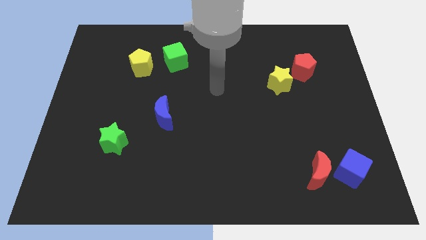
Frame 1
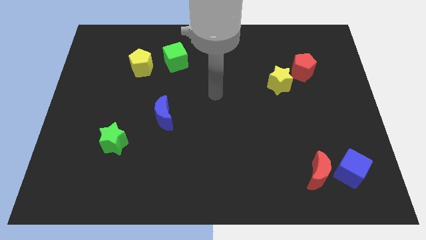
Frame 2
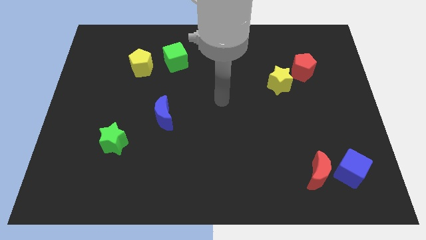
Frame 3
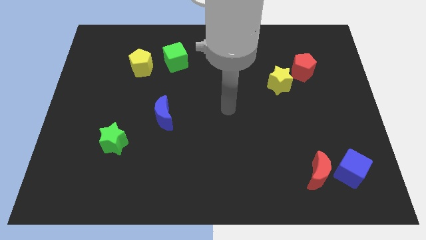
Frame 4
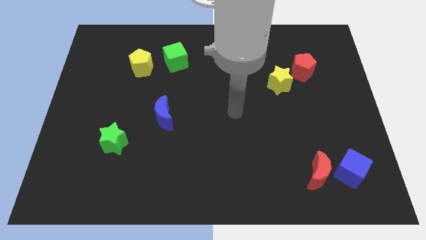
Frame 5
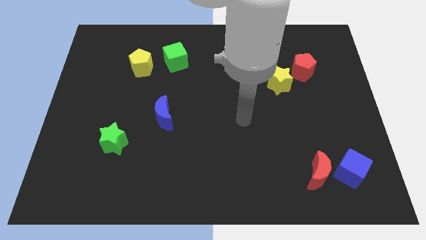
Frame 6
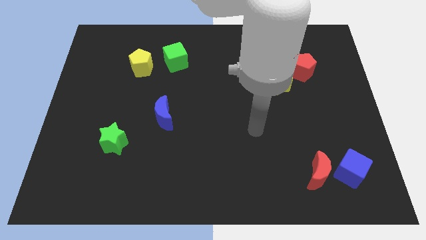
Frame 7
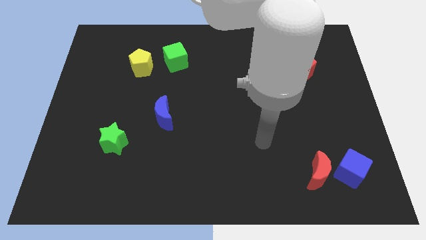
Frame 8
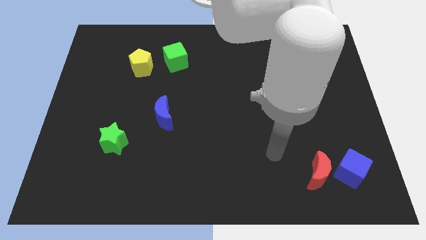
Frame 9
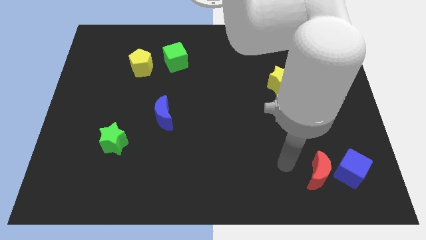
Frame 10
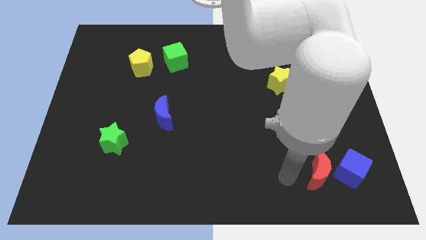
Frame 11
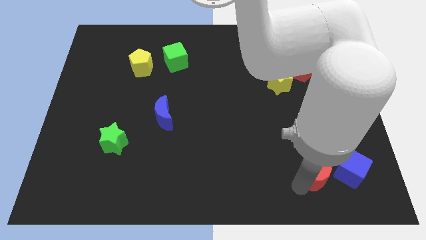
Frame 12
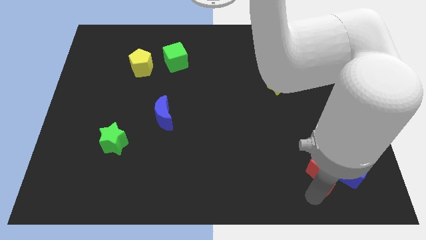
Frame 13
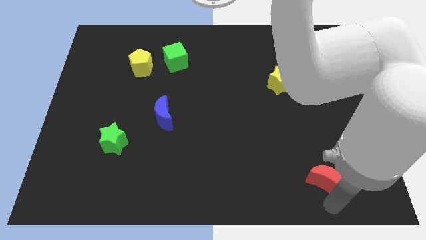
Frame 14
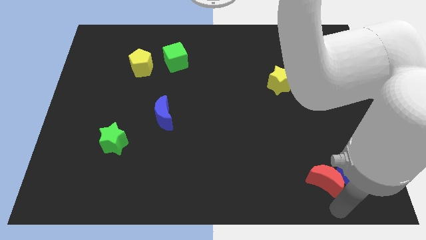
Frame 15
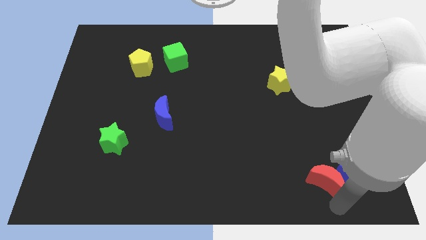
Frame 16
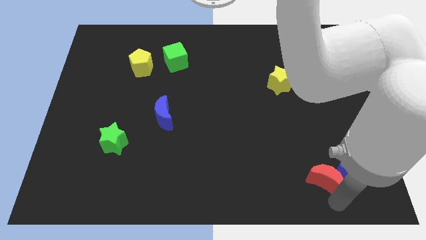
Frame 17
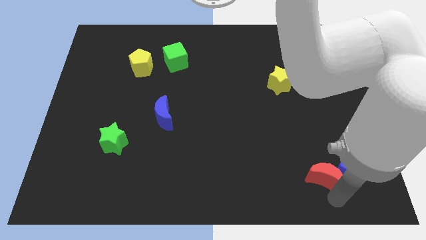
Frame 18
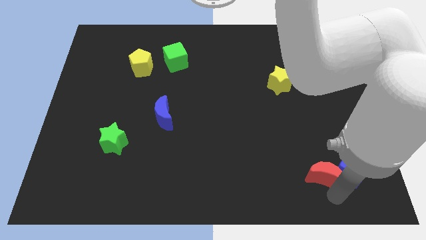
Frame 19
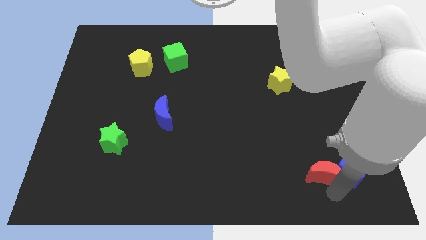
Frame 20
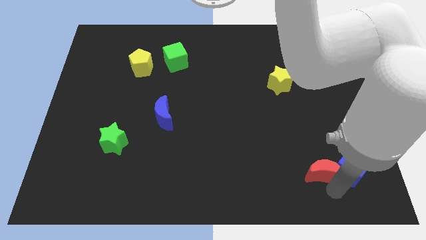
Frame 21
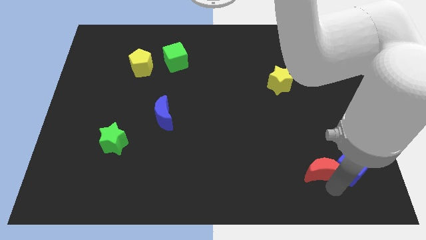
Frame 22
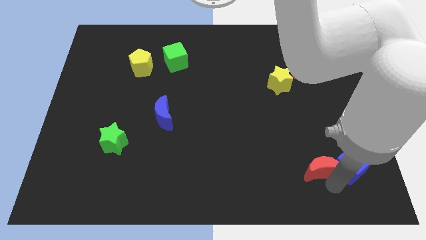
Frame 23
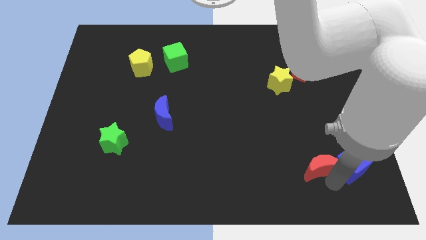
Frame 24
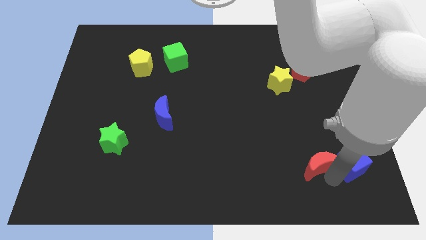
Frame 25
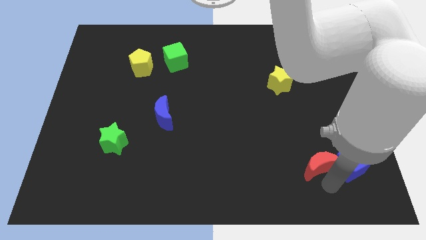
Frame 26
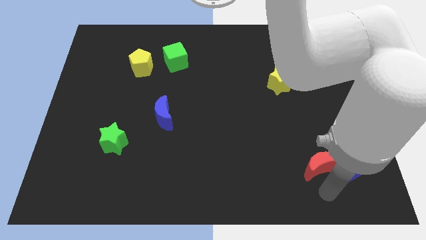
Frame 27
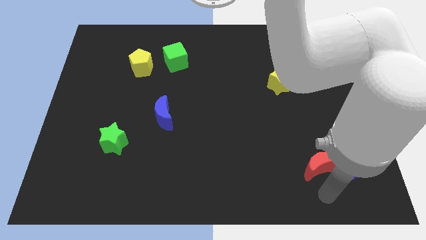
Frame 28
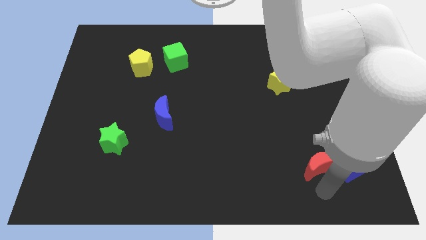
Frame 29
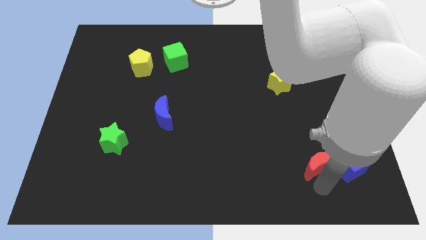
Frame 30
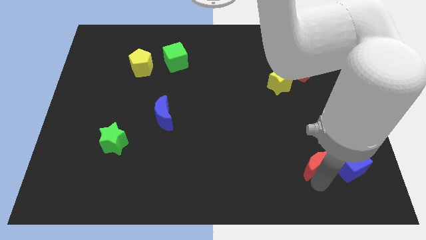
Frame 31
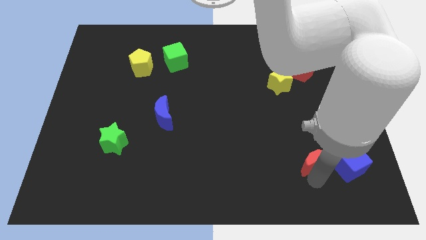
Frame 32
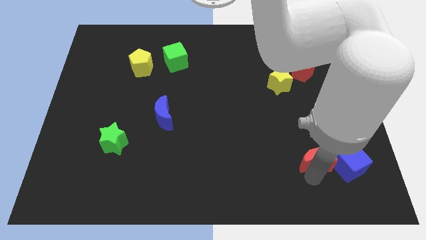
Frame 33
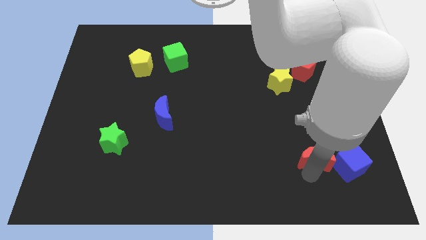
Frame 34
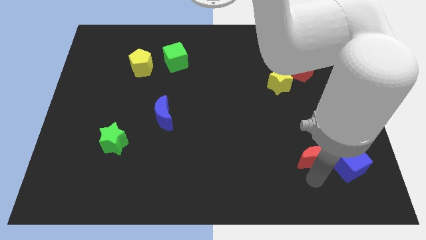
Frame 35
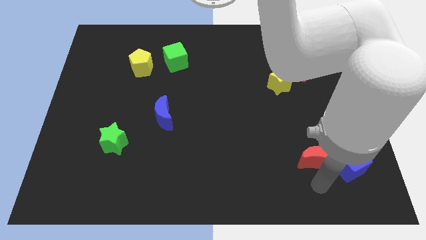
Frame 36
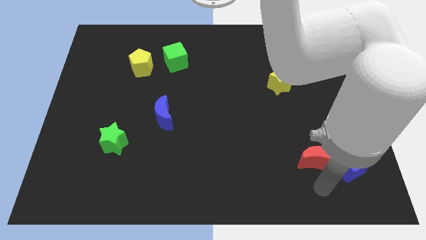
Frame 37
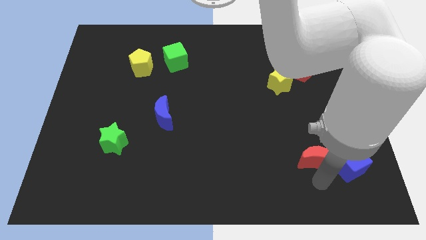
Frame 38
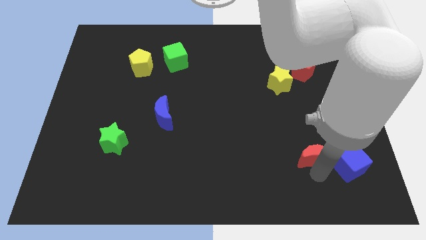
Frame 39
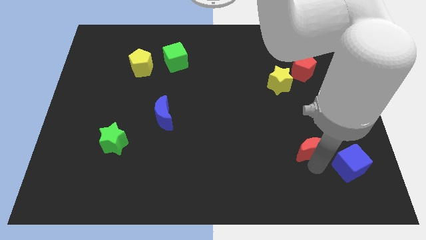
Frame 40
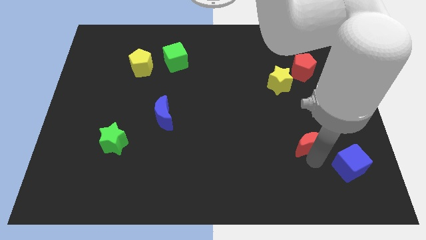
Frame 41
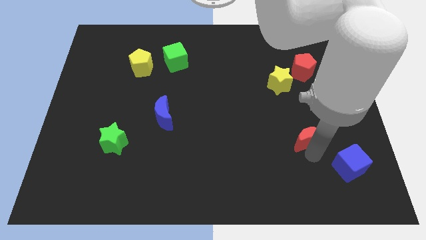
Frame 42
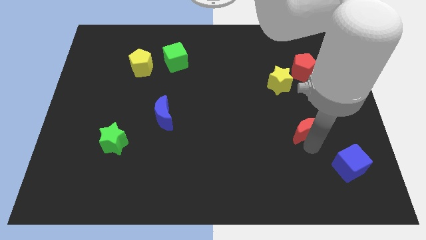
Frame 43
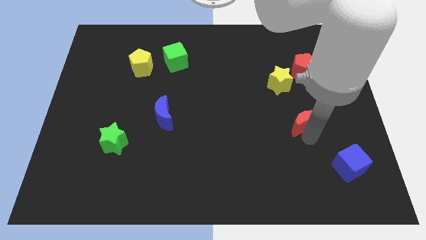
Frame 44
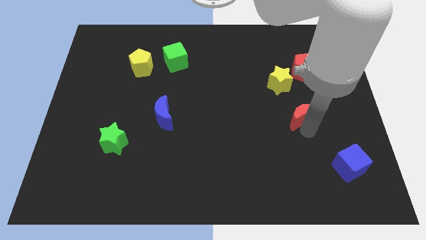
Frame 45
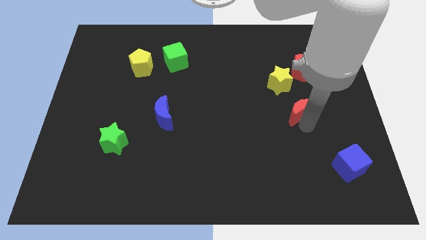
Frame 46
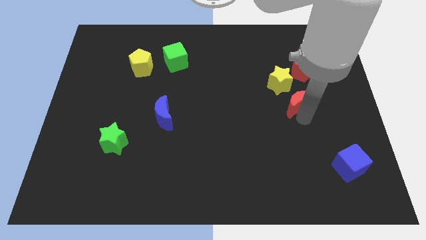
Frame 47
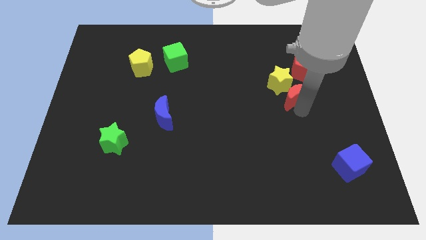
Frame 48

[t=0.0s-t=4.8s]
move the red moon towards the yellow star

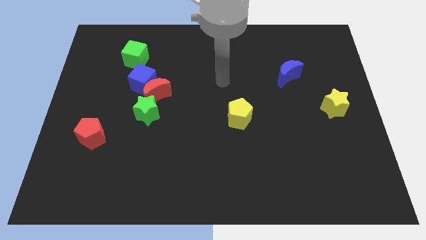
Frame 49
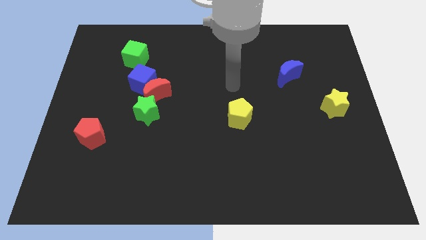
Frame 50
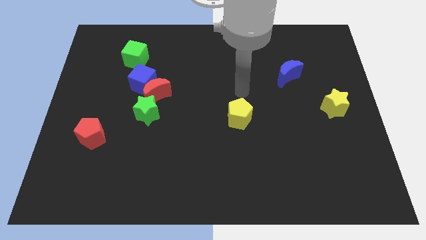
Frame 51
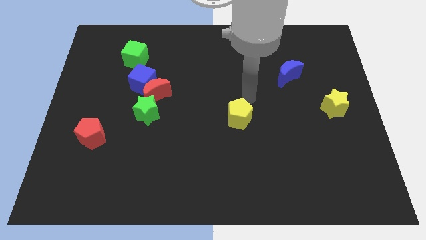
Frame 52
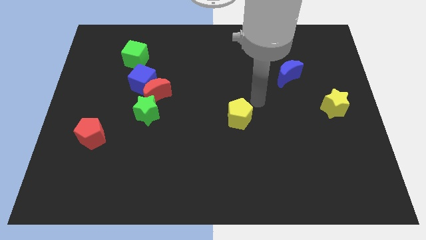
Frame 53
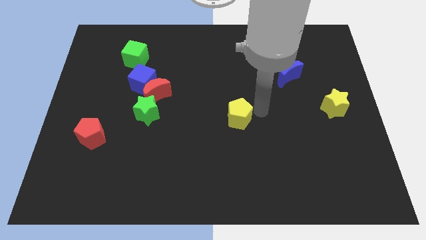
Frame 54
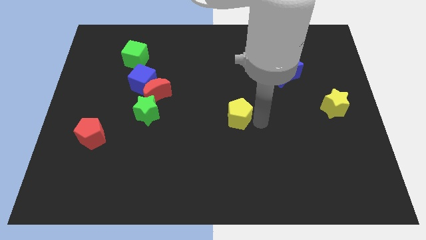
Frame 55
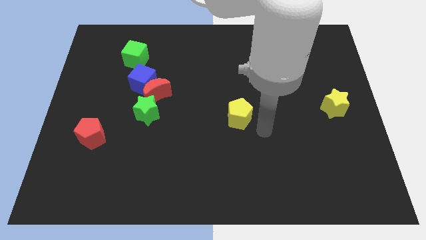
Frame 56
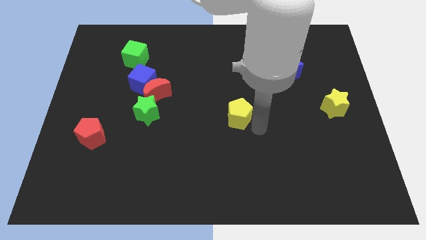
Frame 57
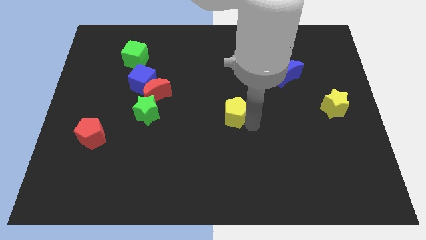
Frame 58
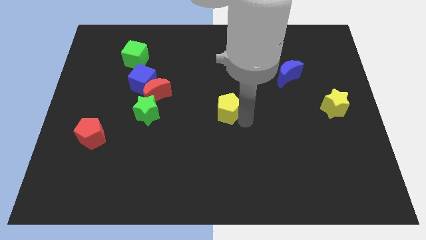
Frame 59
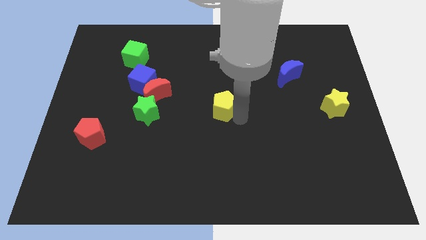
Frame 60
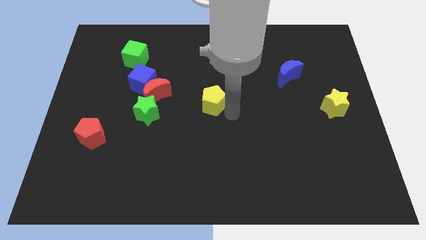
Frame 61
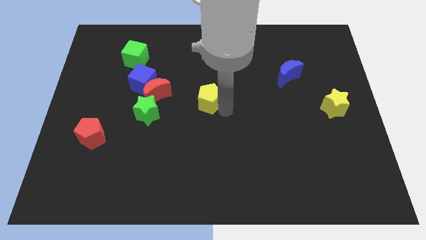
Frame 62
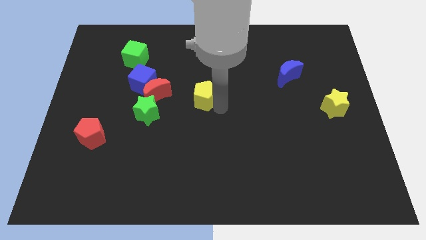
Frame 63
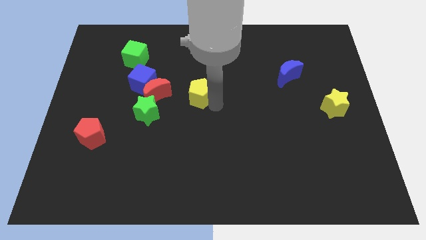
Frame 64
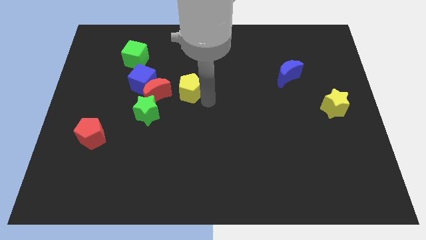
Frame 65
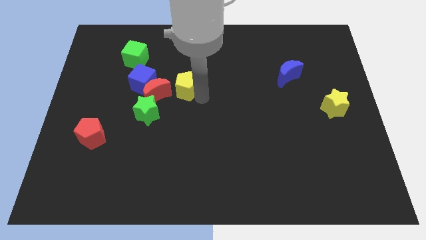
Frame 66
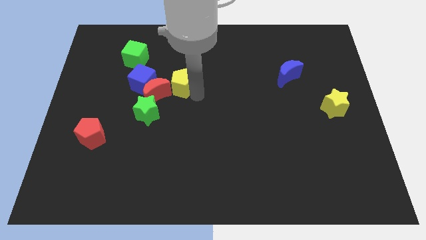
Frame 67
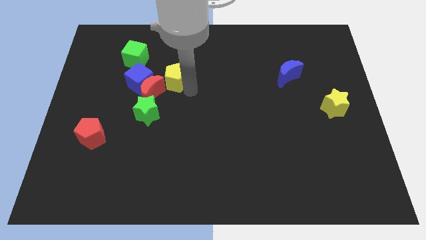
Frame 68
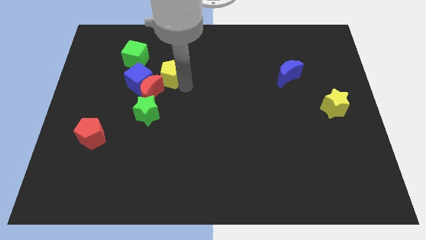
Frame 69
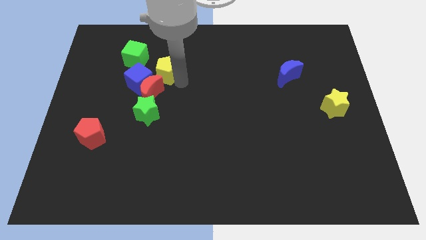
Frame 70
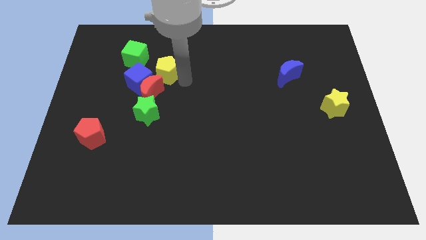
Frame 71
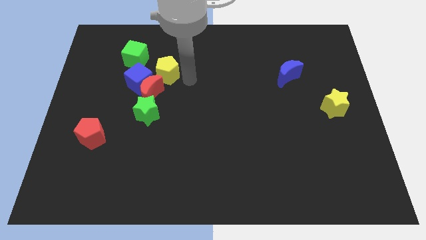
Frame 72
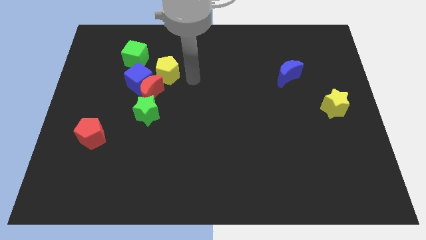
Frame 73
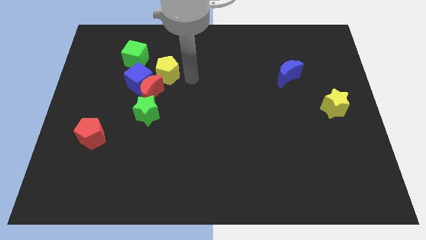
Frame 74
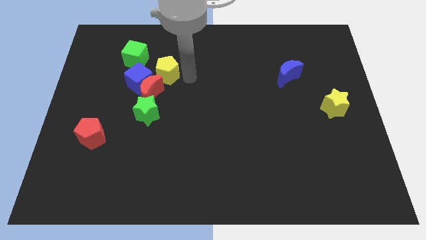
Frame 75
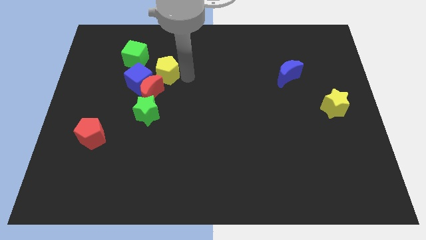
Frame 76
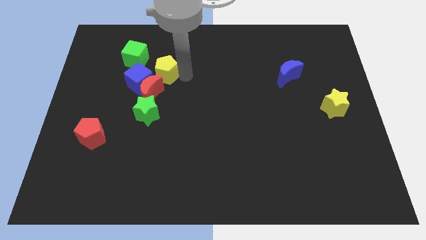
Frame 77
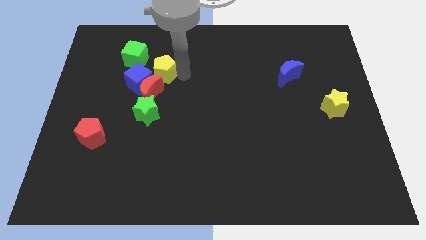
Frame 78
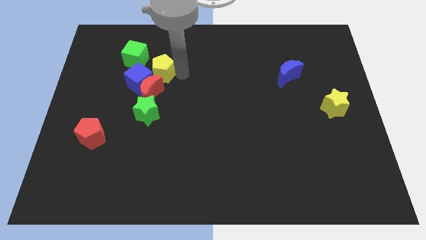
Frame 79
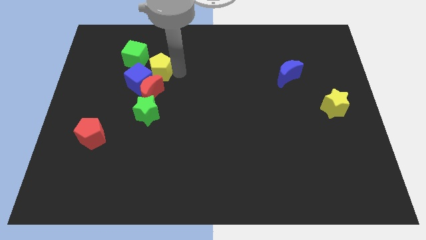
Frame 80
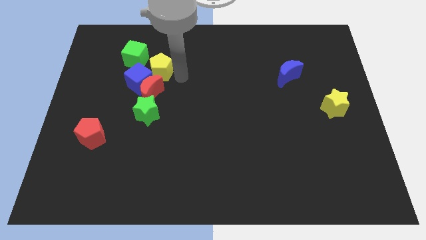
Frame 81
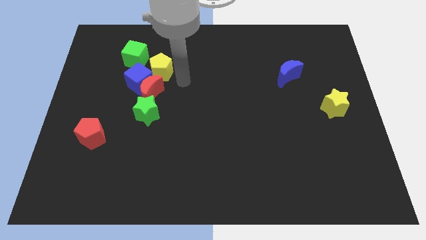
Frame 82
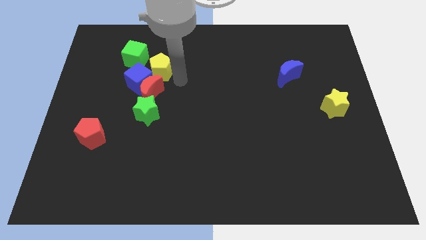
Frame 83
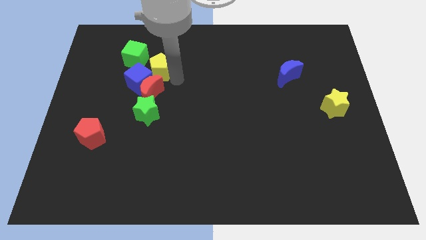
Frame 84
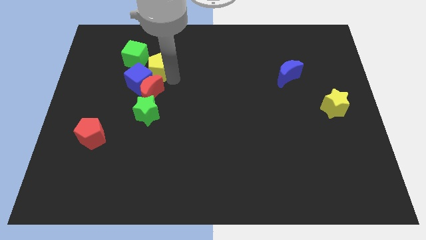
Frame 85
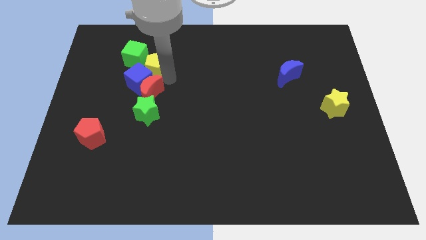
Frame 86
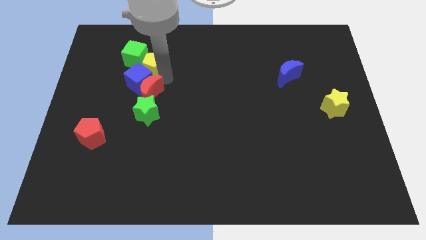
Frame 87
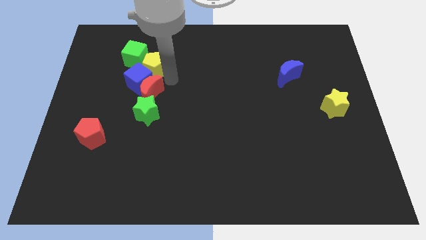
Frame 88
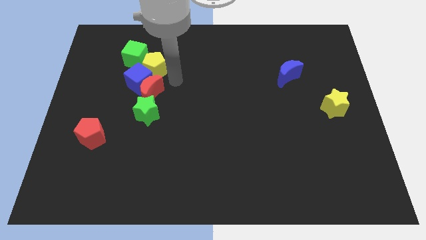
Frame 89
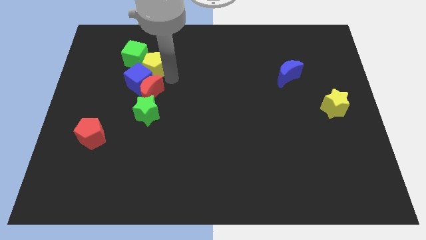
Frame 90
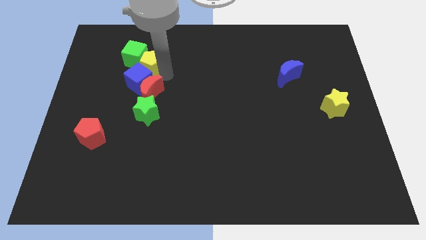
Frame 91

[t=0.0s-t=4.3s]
move the yellow pentagon close to the green cube
